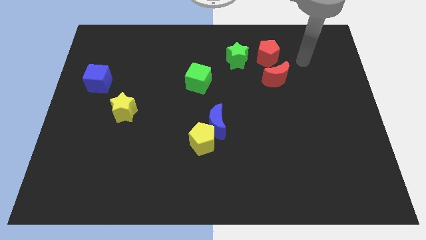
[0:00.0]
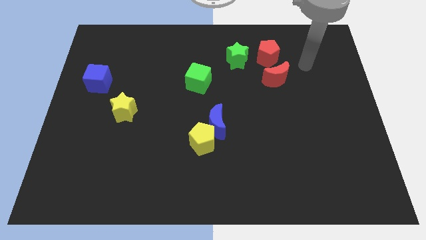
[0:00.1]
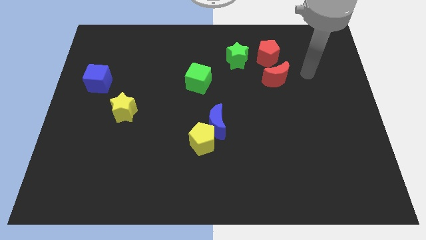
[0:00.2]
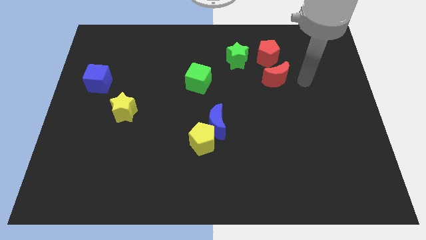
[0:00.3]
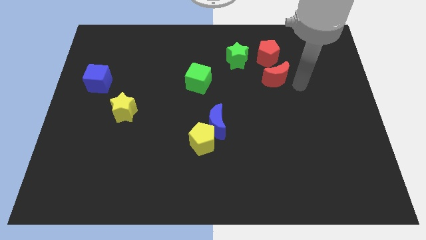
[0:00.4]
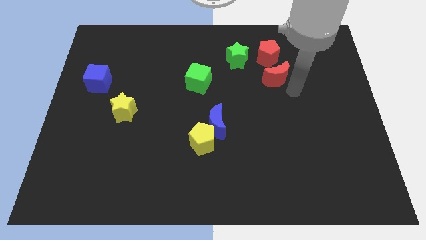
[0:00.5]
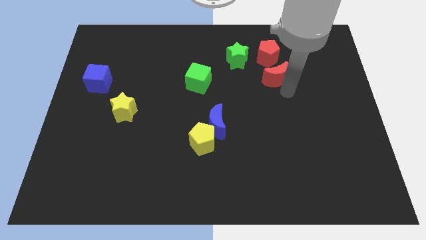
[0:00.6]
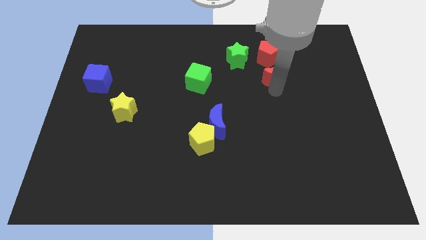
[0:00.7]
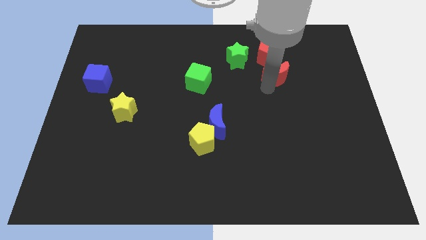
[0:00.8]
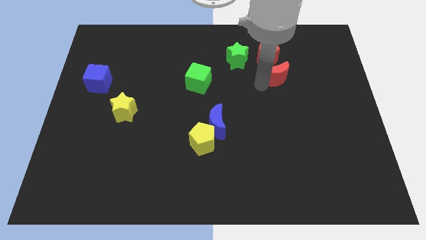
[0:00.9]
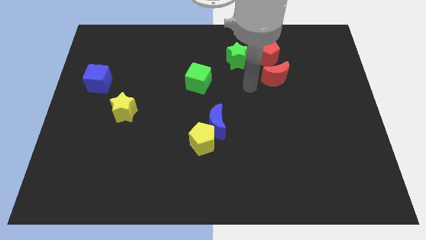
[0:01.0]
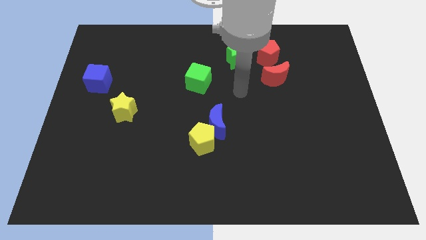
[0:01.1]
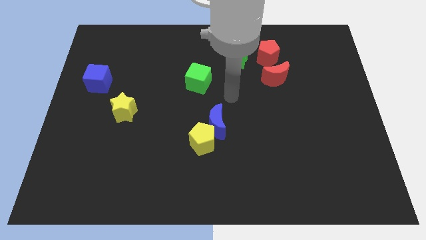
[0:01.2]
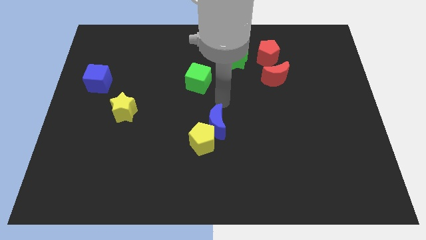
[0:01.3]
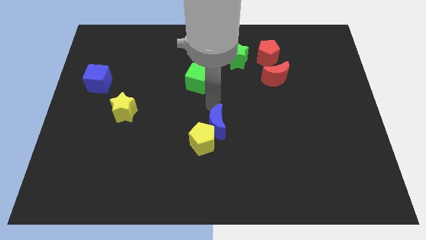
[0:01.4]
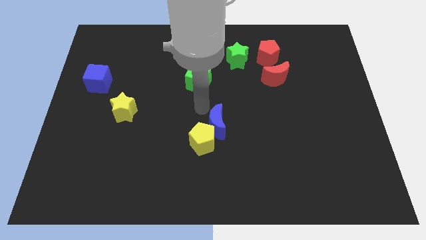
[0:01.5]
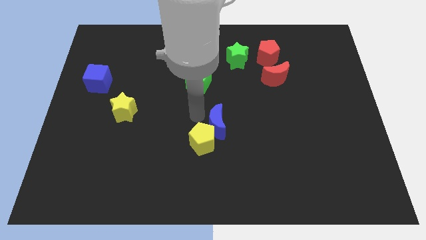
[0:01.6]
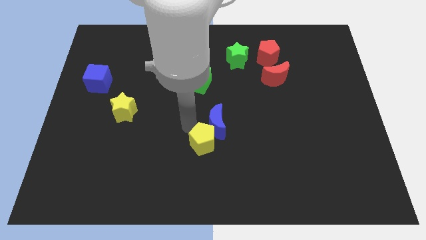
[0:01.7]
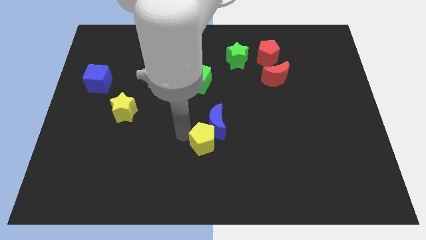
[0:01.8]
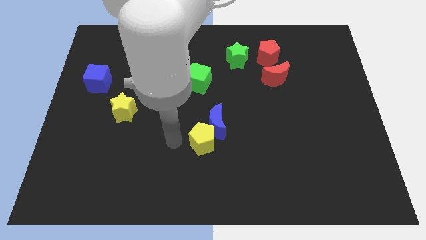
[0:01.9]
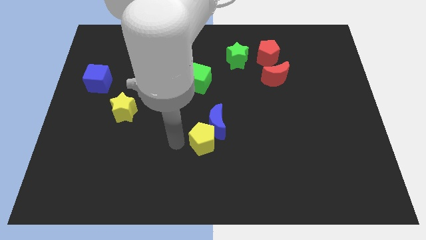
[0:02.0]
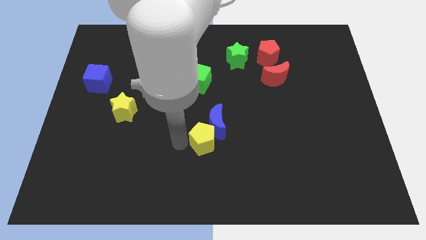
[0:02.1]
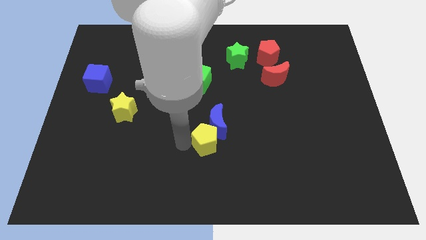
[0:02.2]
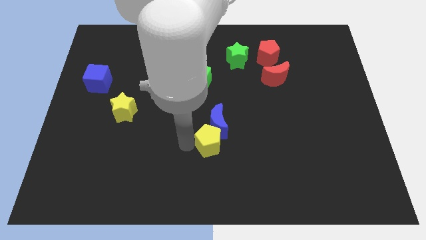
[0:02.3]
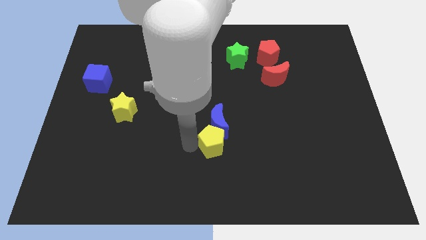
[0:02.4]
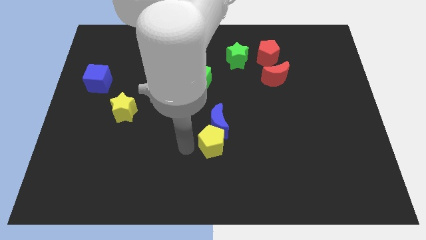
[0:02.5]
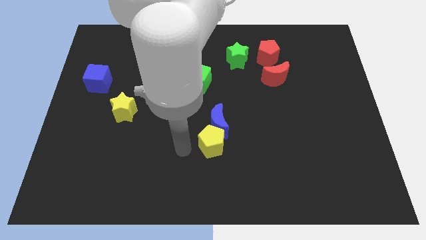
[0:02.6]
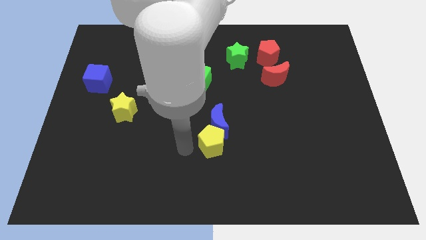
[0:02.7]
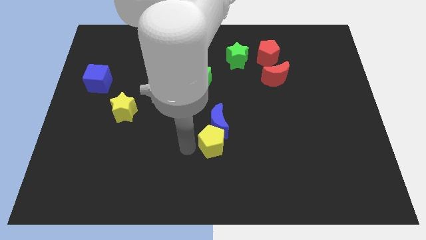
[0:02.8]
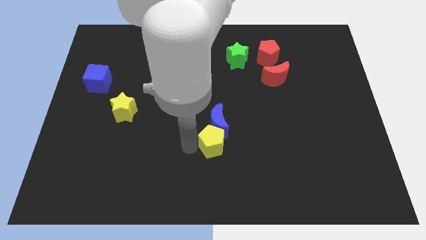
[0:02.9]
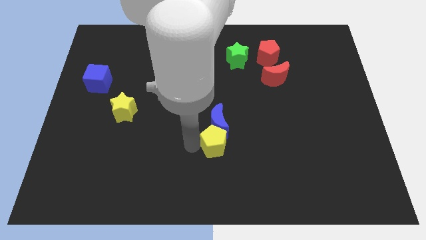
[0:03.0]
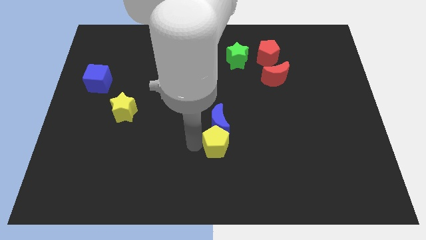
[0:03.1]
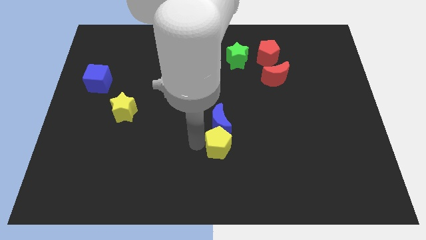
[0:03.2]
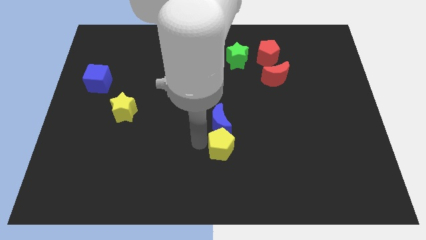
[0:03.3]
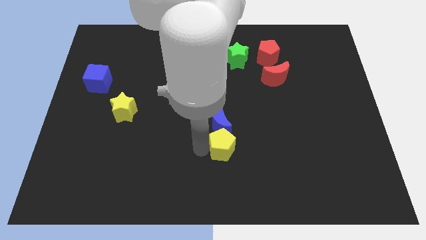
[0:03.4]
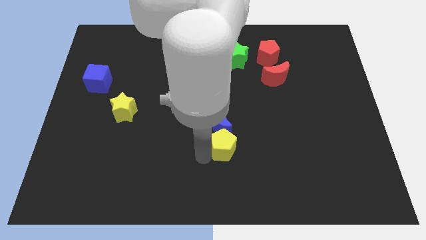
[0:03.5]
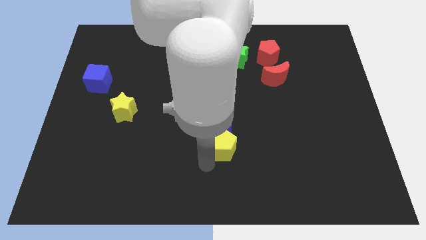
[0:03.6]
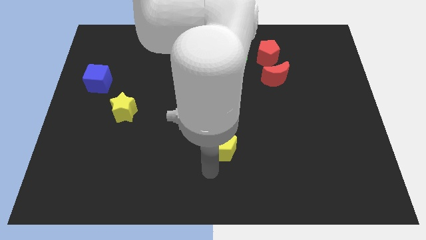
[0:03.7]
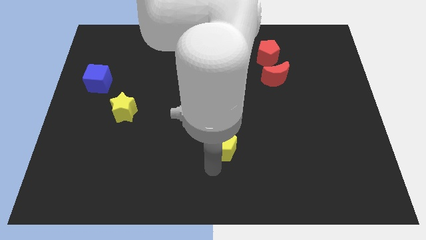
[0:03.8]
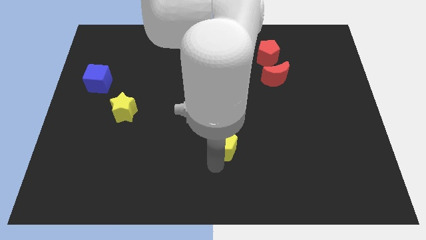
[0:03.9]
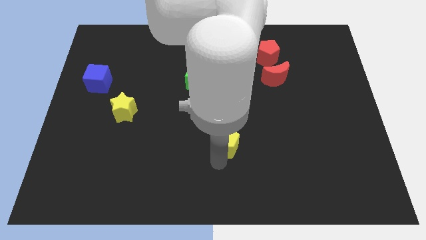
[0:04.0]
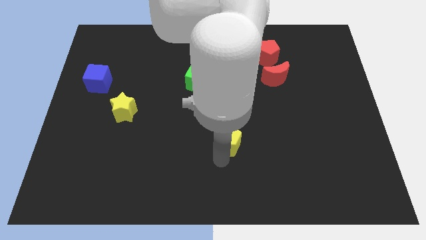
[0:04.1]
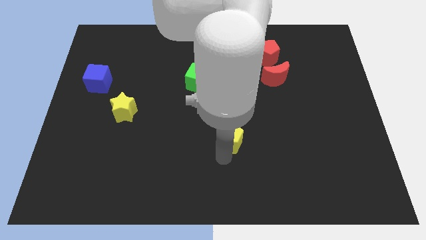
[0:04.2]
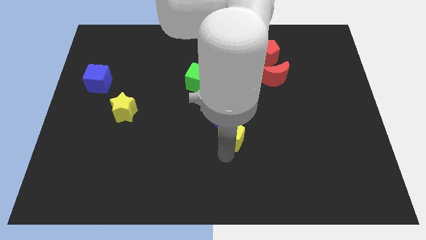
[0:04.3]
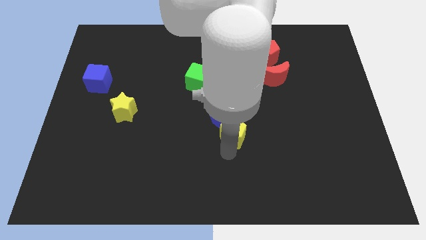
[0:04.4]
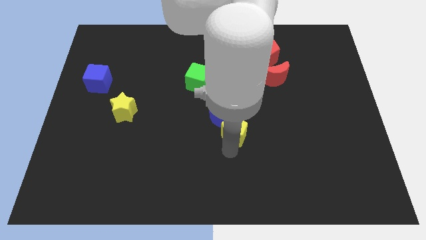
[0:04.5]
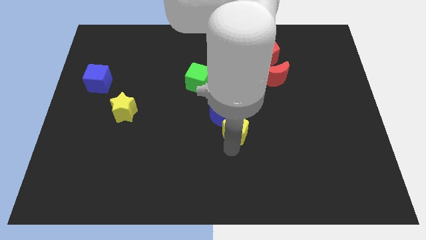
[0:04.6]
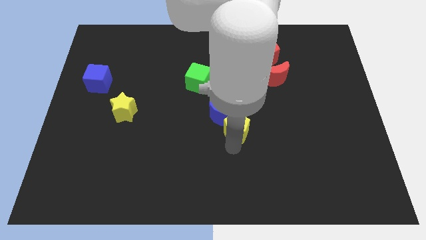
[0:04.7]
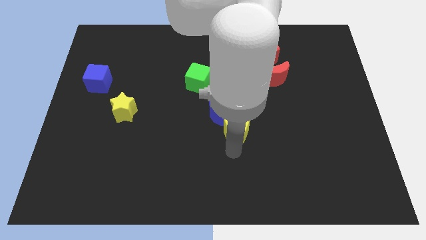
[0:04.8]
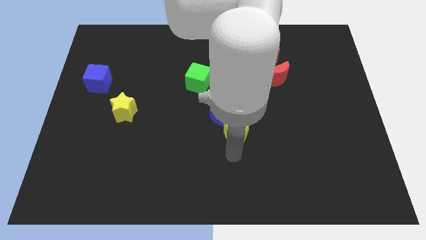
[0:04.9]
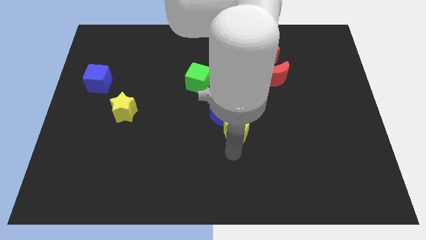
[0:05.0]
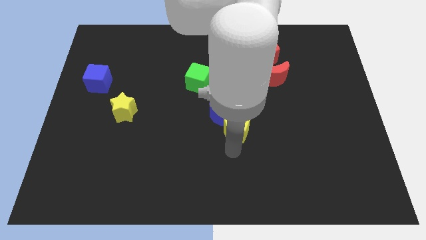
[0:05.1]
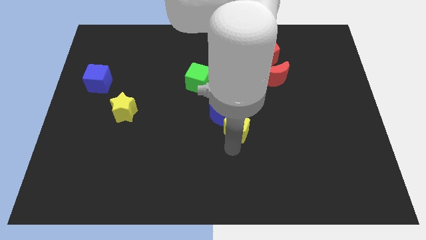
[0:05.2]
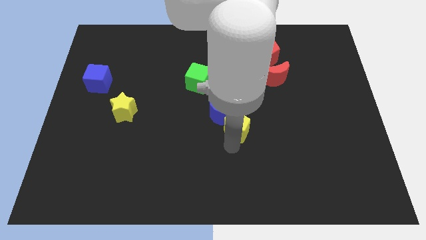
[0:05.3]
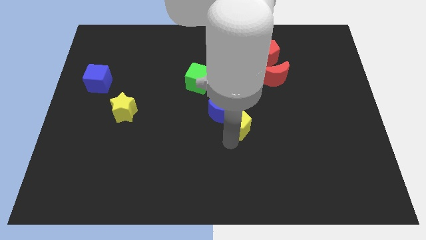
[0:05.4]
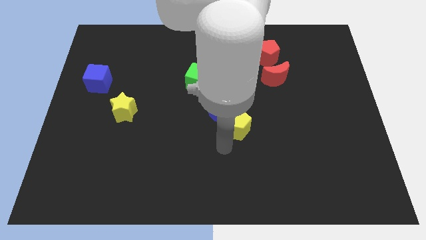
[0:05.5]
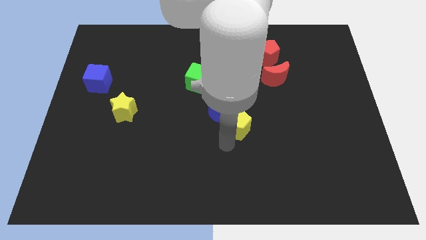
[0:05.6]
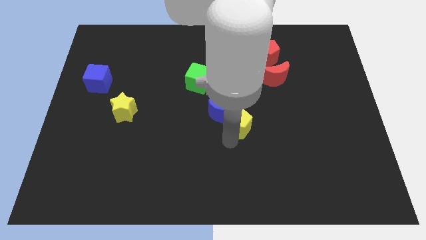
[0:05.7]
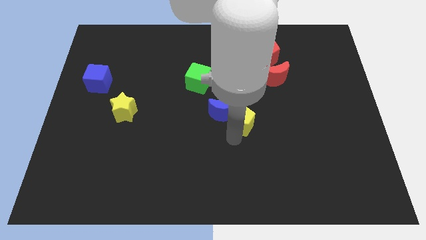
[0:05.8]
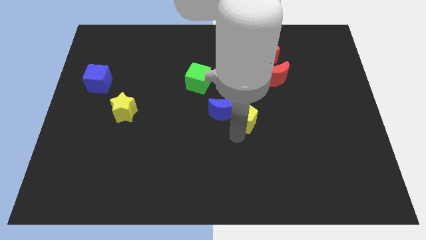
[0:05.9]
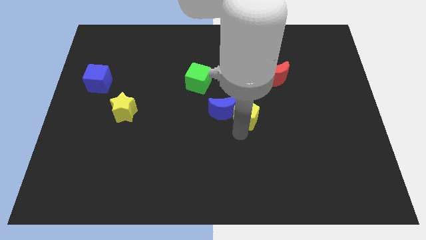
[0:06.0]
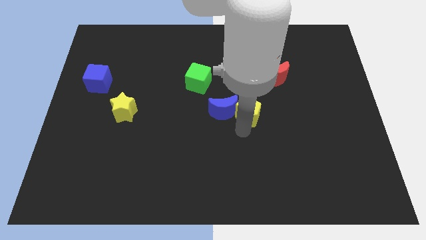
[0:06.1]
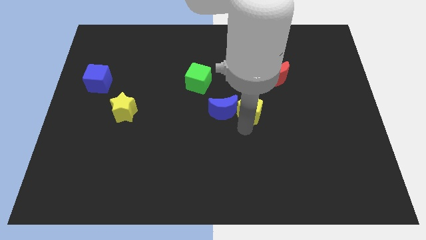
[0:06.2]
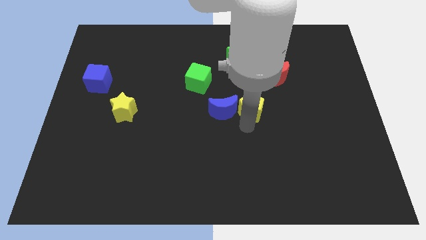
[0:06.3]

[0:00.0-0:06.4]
put the yellow pentagon to the bottom left side of the red moon

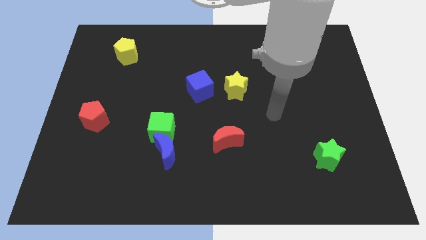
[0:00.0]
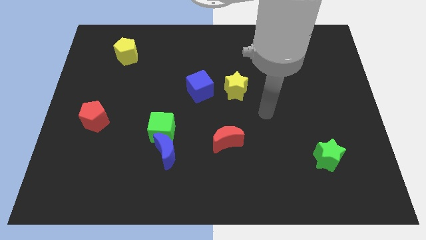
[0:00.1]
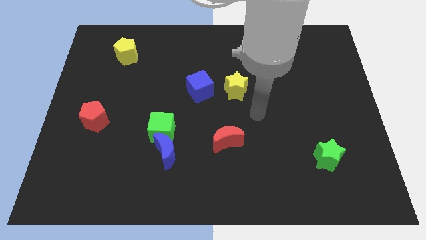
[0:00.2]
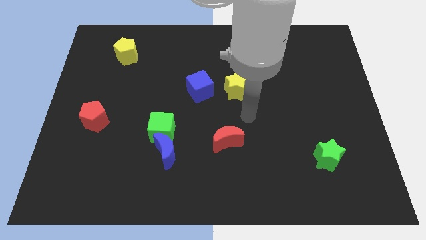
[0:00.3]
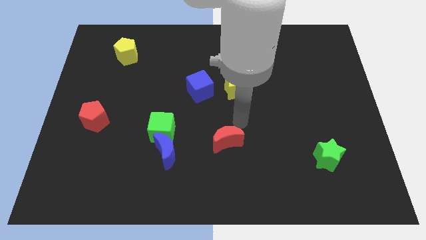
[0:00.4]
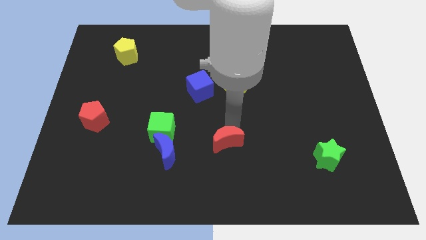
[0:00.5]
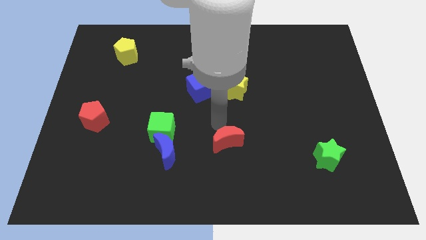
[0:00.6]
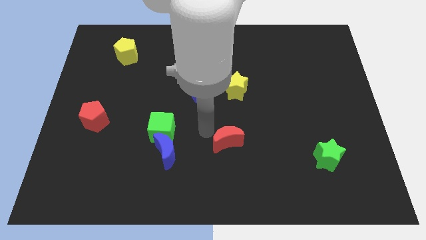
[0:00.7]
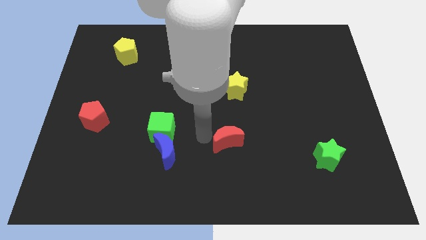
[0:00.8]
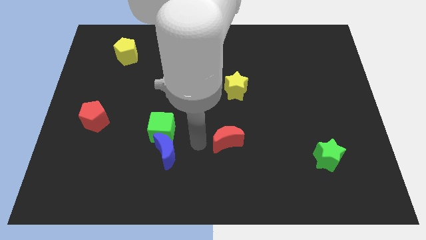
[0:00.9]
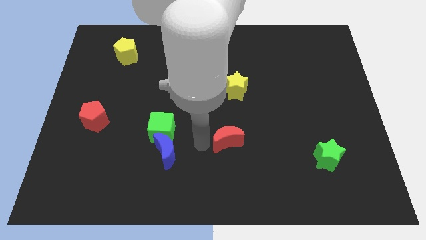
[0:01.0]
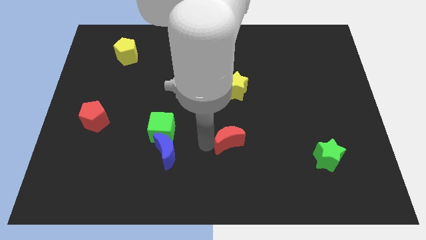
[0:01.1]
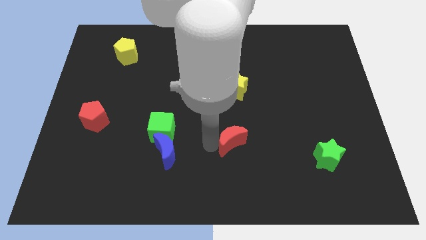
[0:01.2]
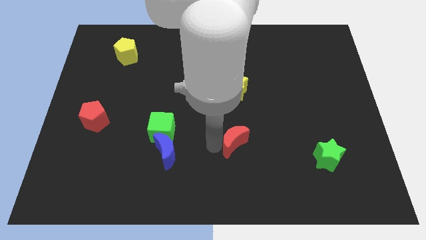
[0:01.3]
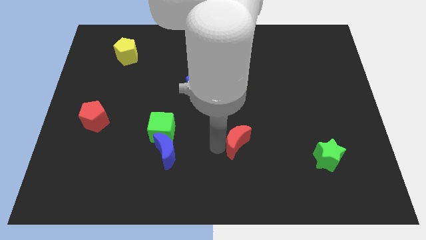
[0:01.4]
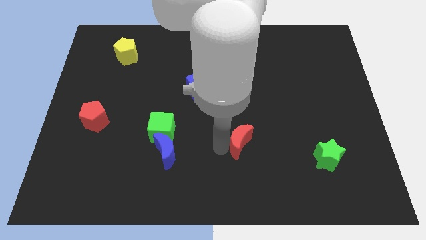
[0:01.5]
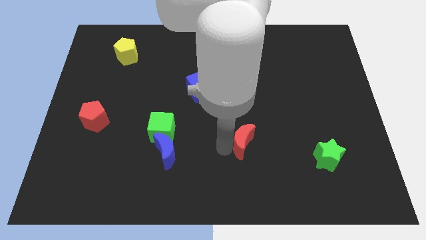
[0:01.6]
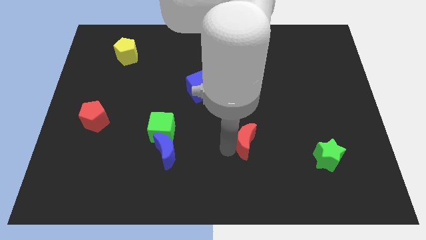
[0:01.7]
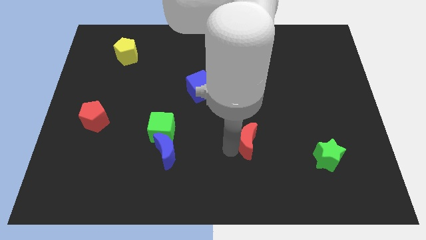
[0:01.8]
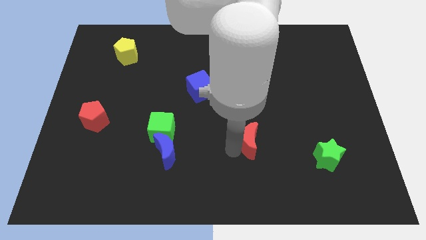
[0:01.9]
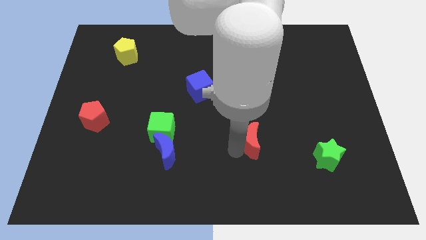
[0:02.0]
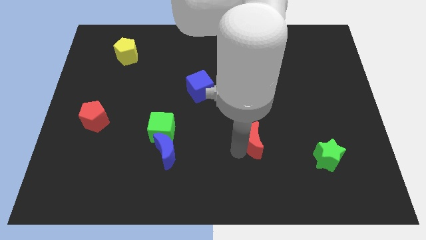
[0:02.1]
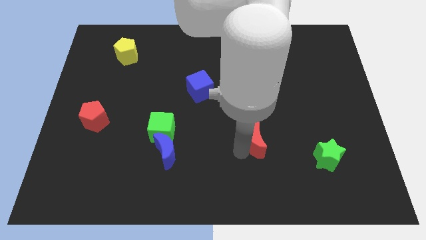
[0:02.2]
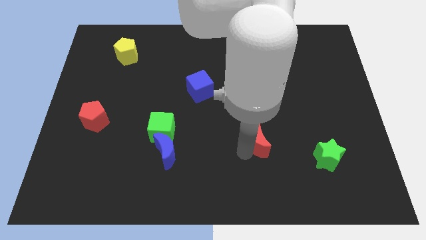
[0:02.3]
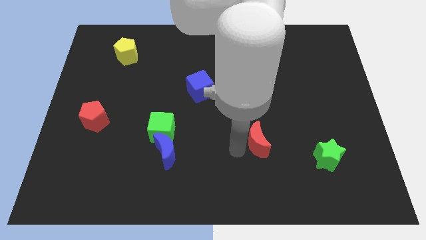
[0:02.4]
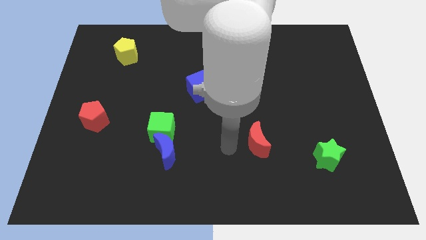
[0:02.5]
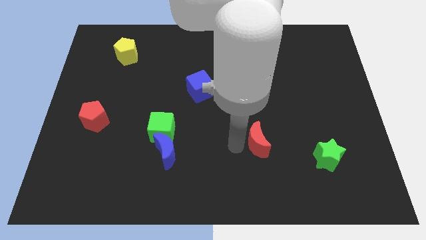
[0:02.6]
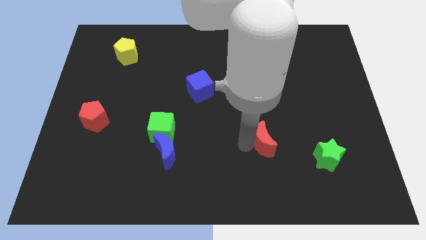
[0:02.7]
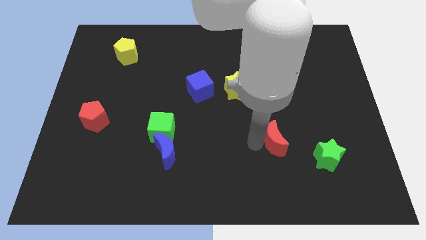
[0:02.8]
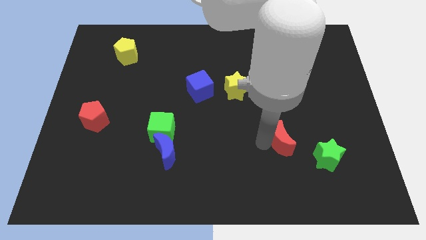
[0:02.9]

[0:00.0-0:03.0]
put the red moon to the top left side of the green star
